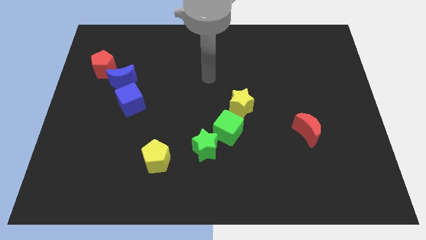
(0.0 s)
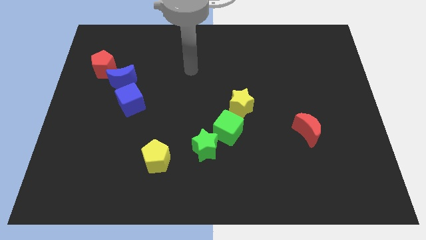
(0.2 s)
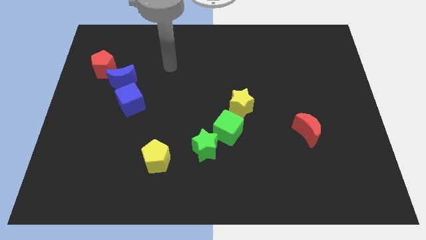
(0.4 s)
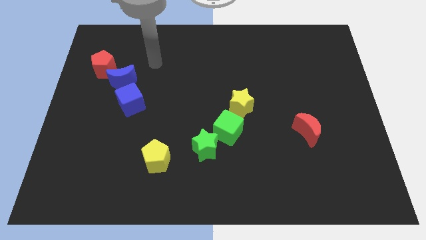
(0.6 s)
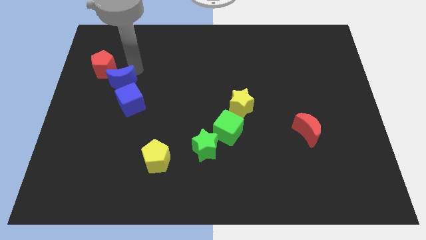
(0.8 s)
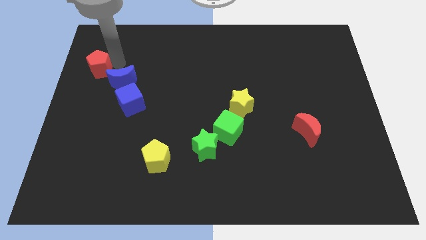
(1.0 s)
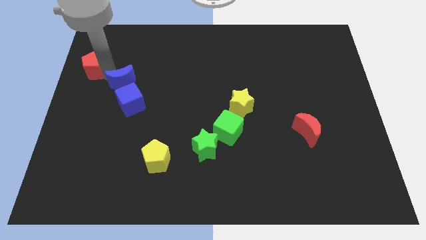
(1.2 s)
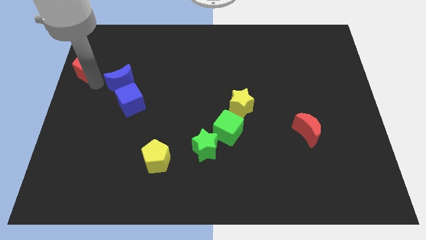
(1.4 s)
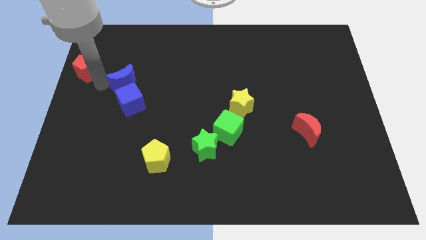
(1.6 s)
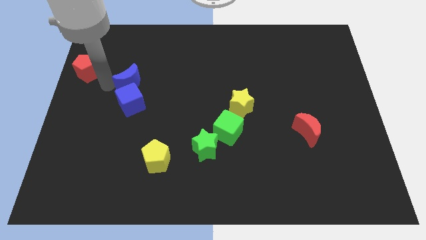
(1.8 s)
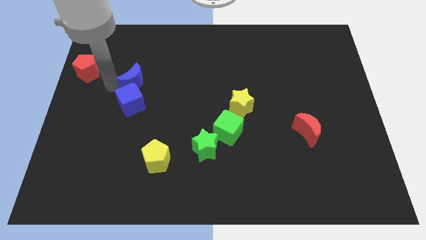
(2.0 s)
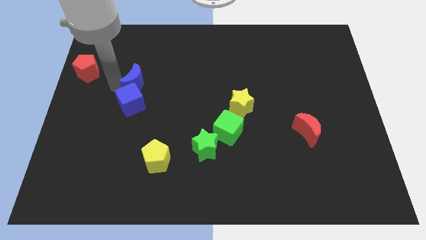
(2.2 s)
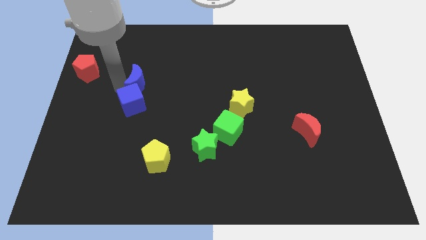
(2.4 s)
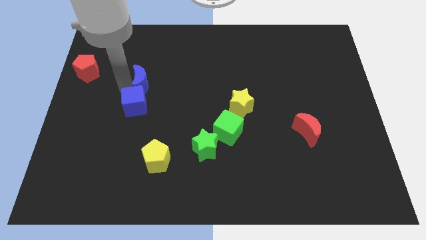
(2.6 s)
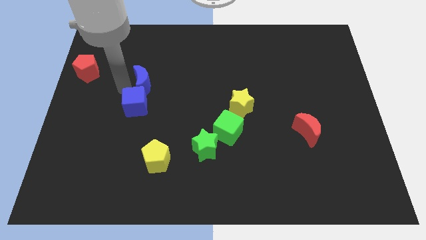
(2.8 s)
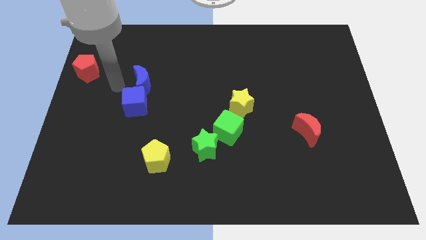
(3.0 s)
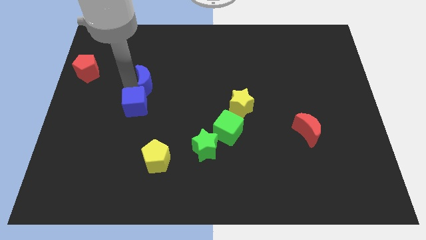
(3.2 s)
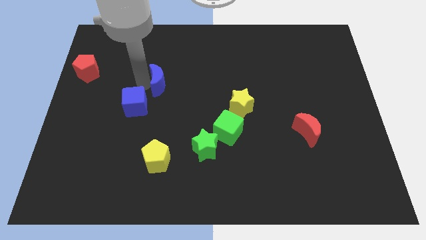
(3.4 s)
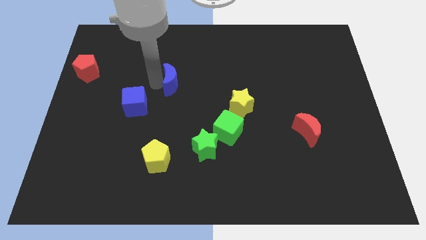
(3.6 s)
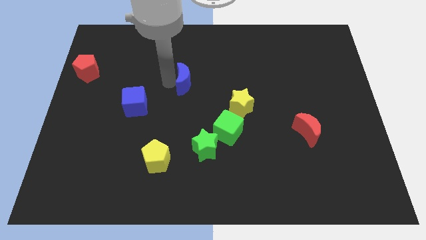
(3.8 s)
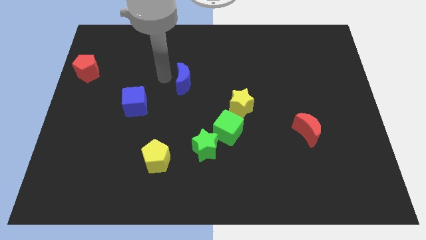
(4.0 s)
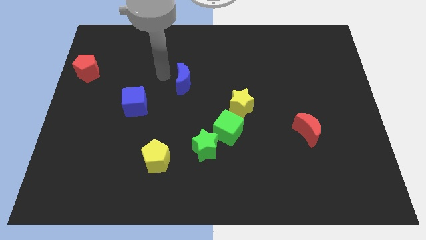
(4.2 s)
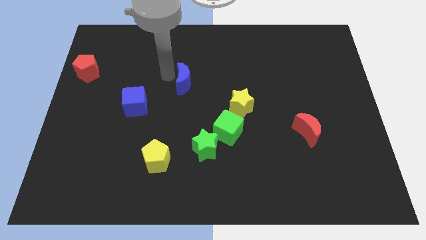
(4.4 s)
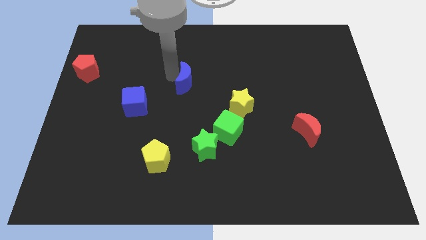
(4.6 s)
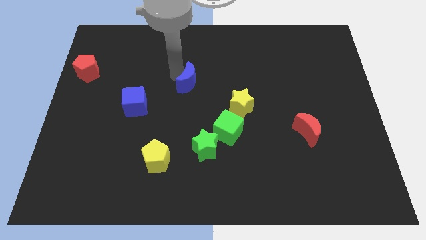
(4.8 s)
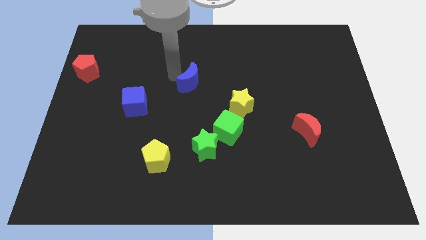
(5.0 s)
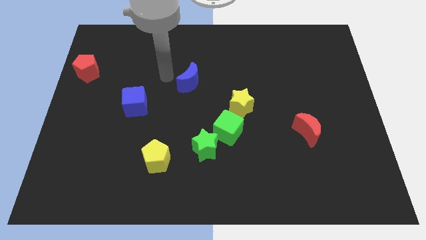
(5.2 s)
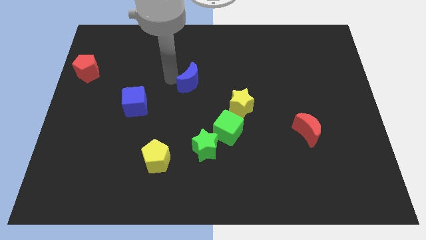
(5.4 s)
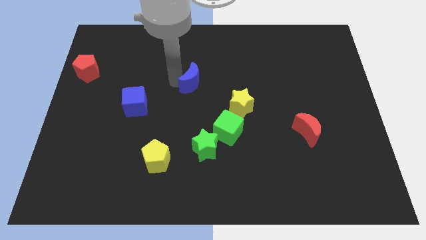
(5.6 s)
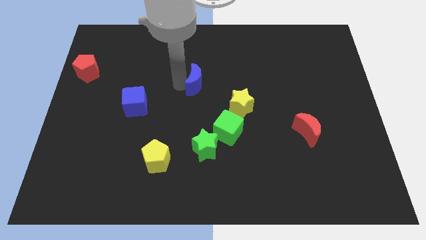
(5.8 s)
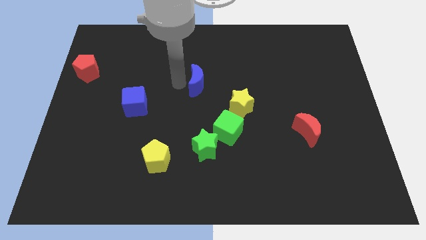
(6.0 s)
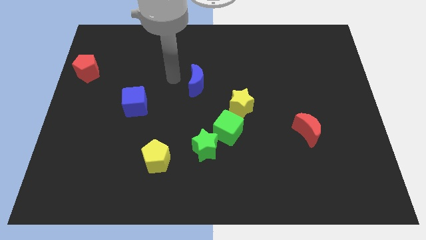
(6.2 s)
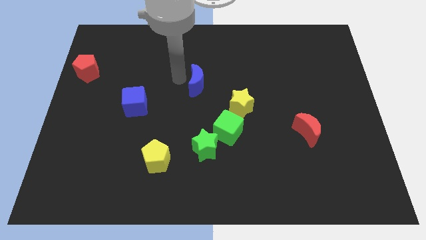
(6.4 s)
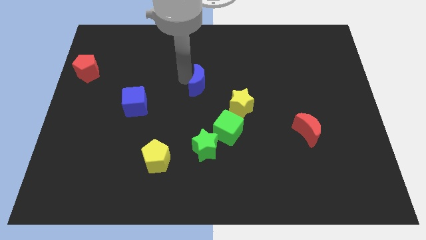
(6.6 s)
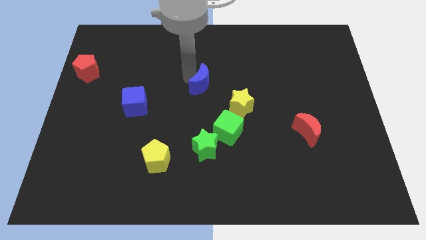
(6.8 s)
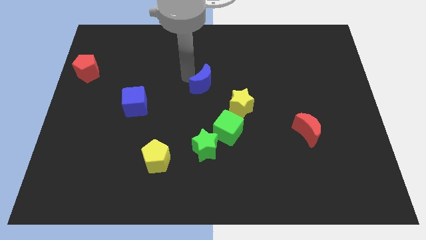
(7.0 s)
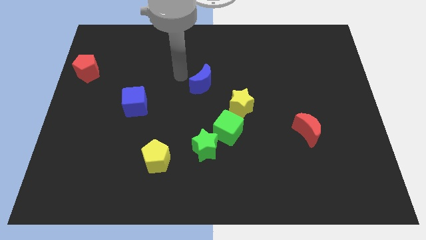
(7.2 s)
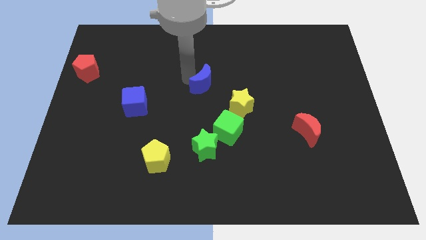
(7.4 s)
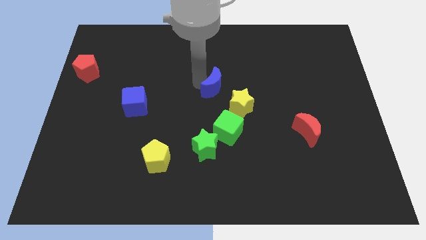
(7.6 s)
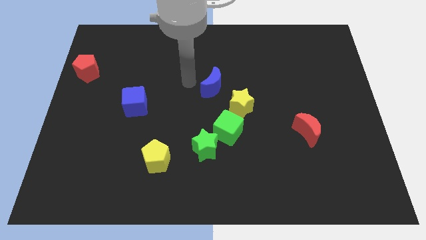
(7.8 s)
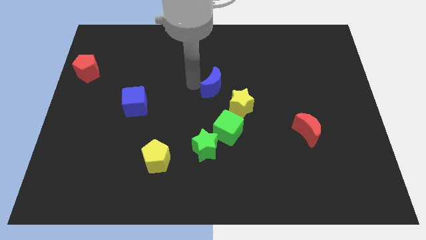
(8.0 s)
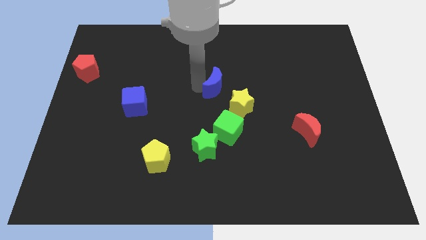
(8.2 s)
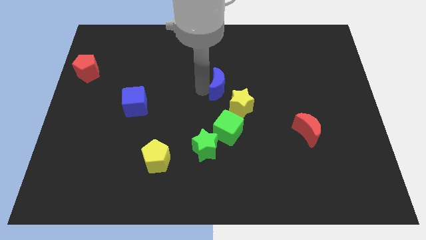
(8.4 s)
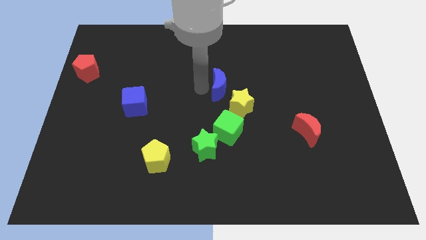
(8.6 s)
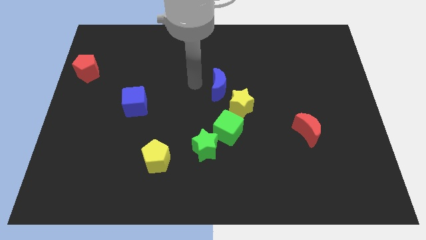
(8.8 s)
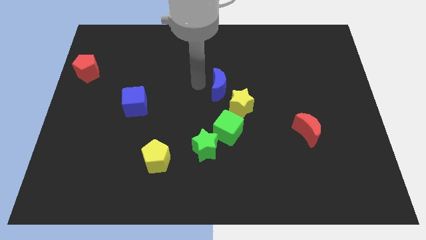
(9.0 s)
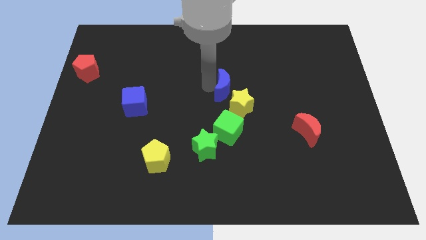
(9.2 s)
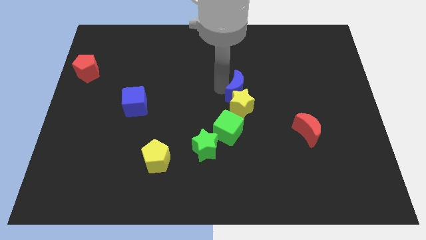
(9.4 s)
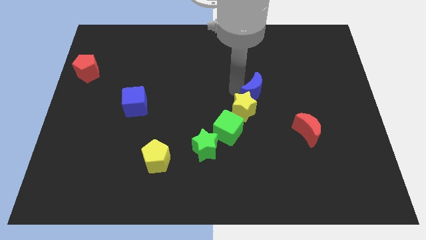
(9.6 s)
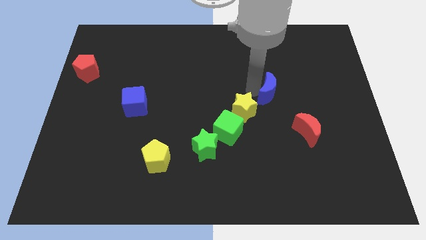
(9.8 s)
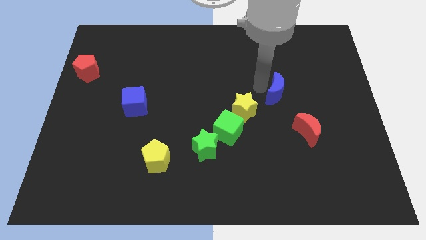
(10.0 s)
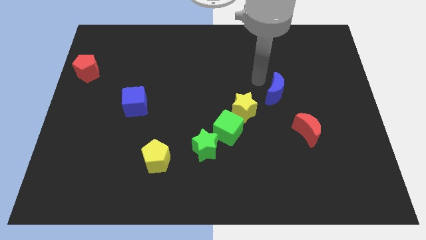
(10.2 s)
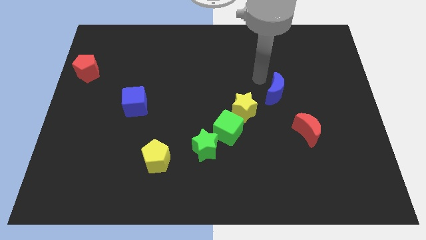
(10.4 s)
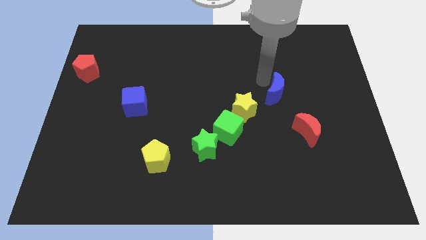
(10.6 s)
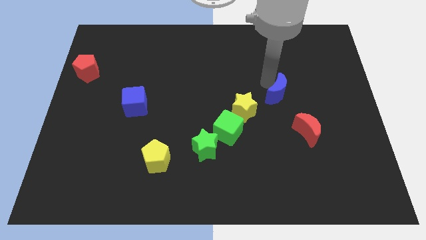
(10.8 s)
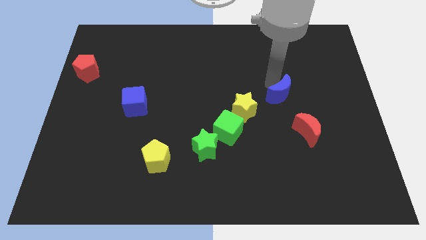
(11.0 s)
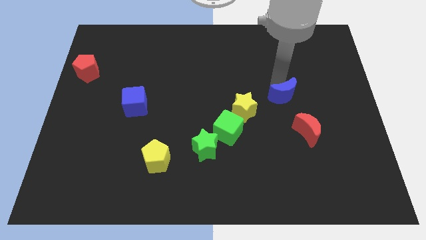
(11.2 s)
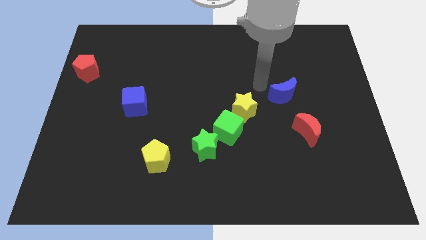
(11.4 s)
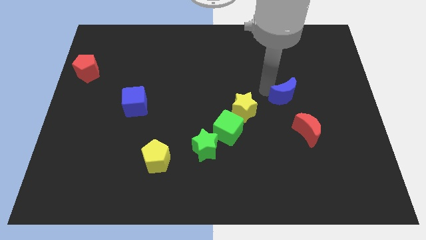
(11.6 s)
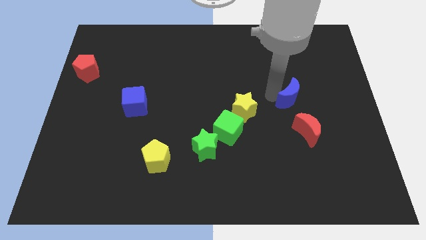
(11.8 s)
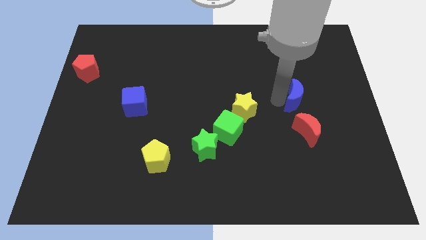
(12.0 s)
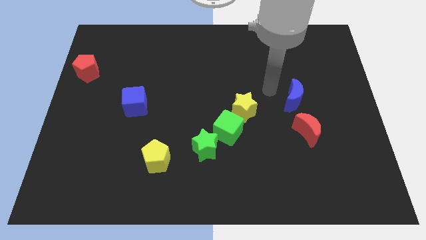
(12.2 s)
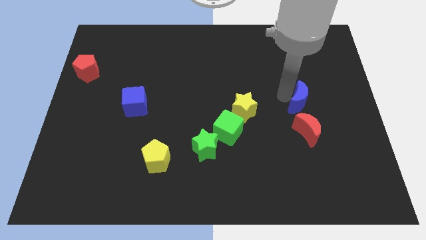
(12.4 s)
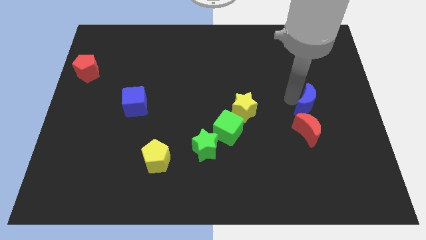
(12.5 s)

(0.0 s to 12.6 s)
move the blue moon diagonally up and to the right of the red moon

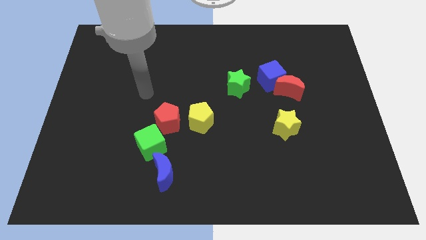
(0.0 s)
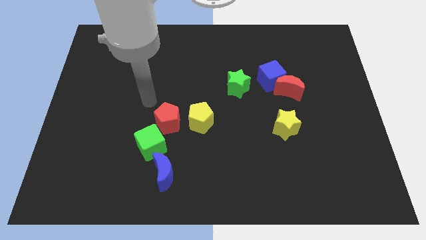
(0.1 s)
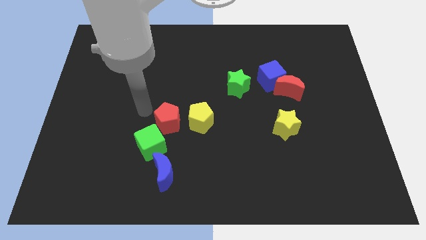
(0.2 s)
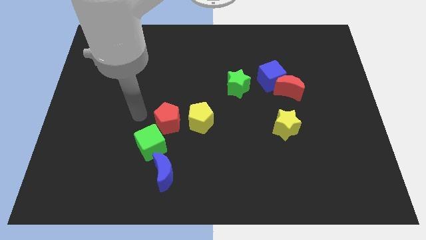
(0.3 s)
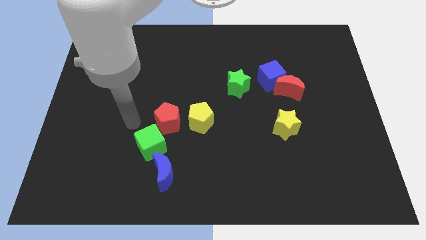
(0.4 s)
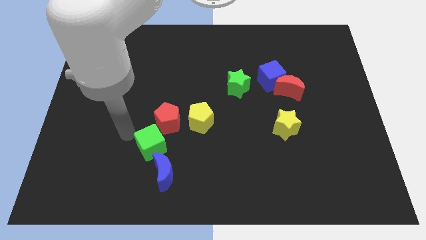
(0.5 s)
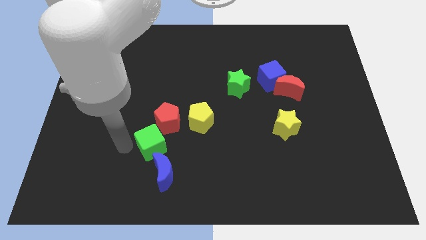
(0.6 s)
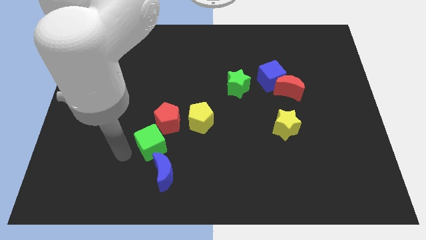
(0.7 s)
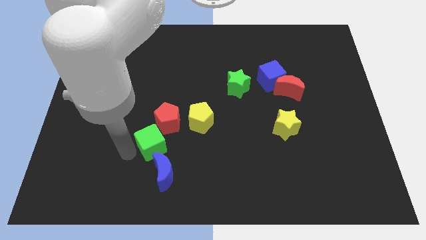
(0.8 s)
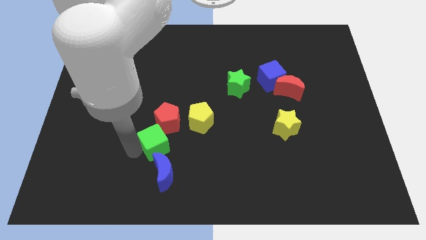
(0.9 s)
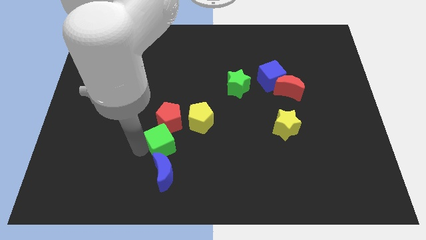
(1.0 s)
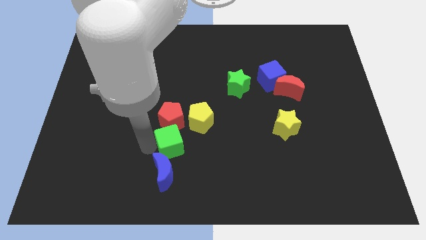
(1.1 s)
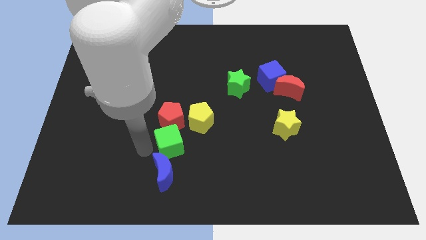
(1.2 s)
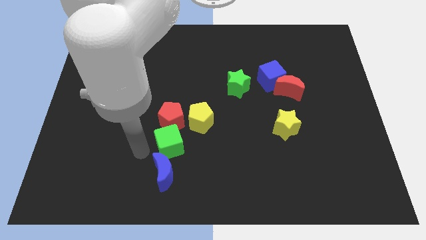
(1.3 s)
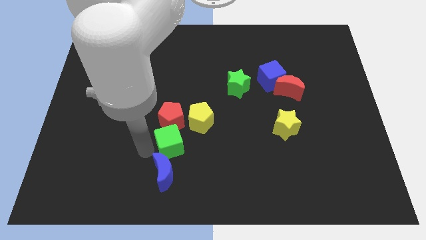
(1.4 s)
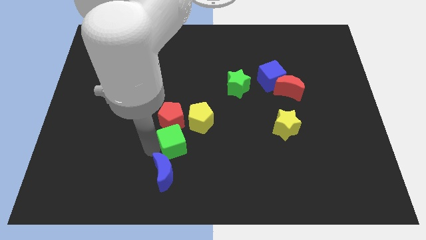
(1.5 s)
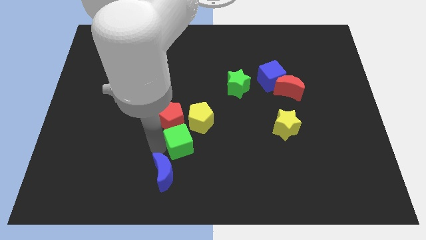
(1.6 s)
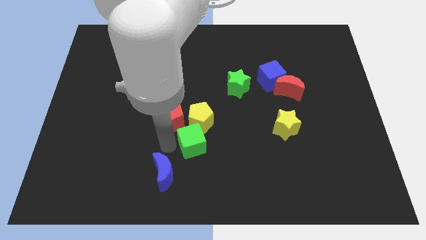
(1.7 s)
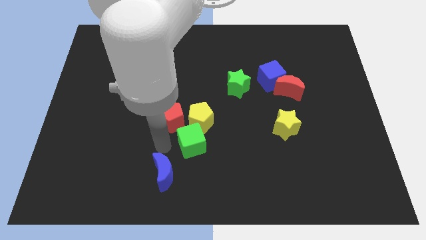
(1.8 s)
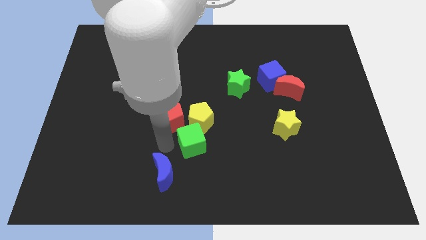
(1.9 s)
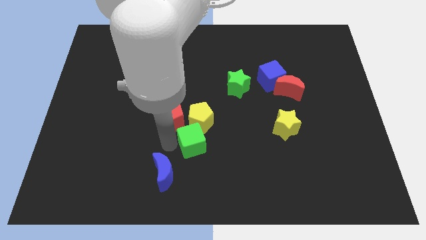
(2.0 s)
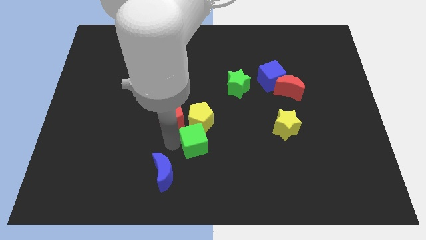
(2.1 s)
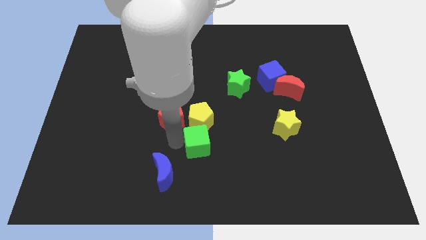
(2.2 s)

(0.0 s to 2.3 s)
push the green cube diagonally down and to the right of the yellow pentagon
